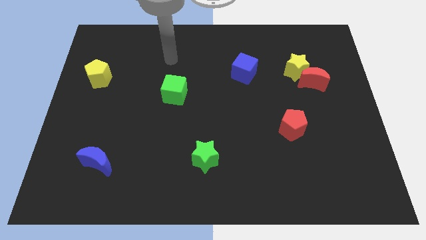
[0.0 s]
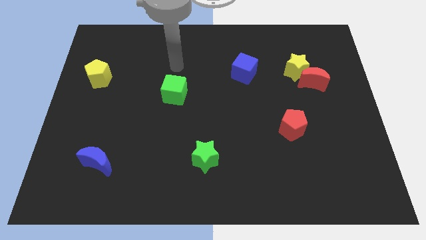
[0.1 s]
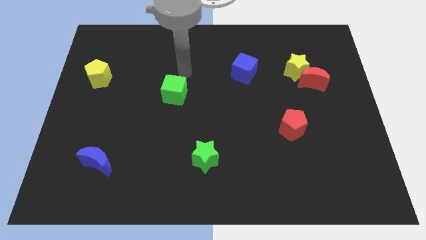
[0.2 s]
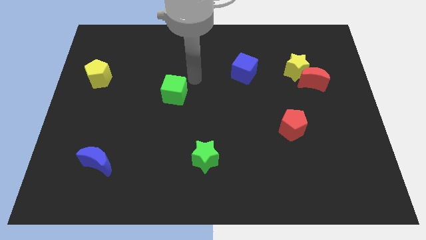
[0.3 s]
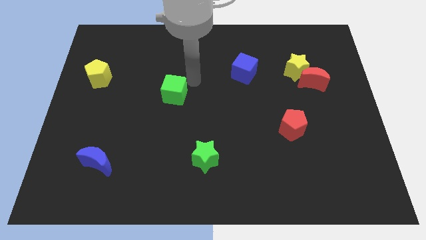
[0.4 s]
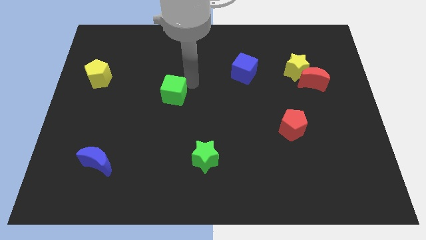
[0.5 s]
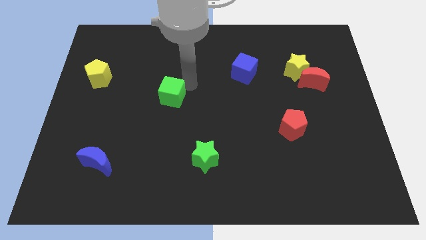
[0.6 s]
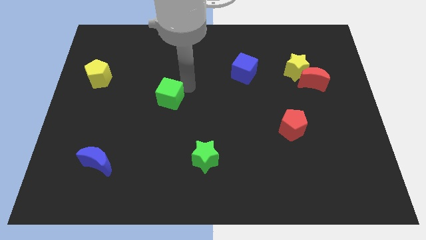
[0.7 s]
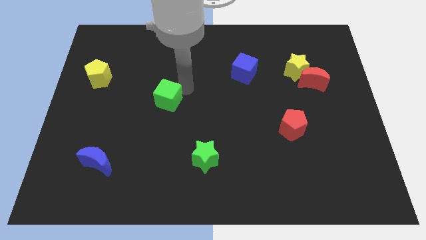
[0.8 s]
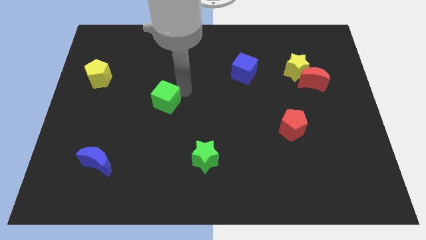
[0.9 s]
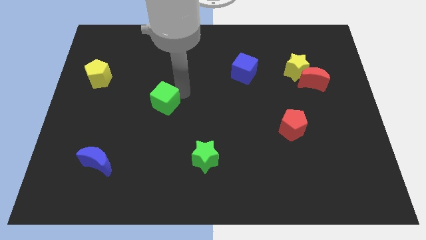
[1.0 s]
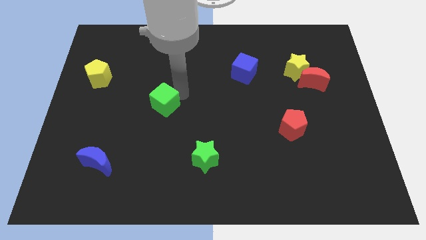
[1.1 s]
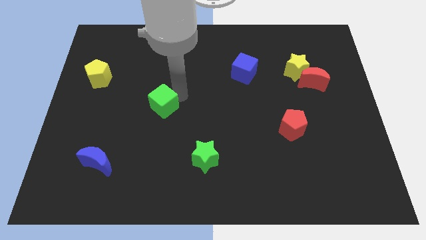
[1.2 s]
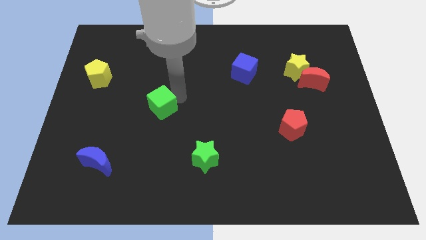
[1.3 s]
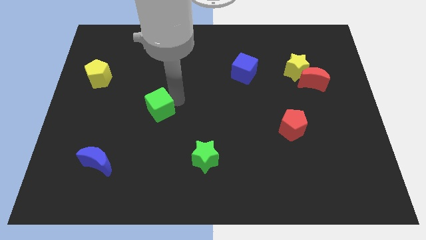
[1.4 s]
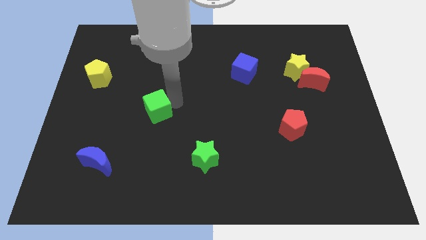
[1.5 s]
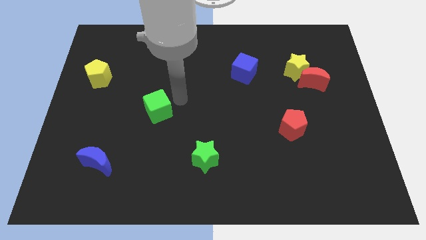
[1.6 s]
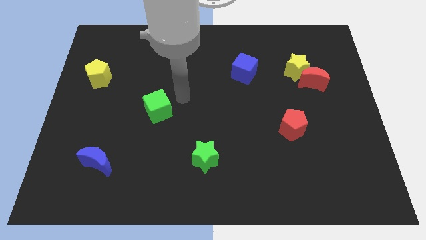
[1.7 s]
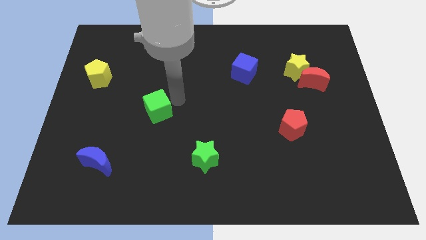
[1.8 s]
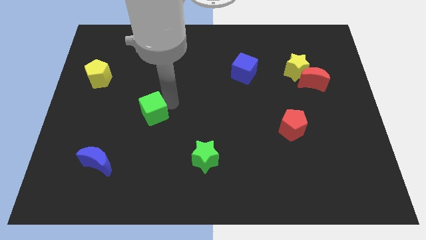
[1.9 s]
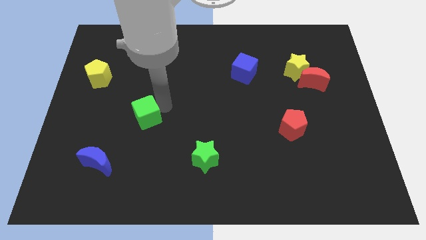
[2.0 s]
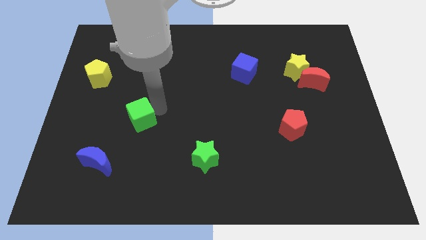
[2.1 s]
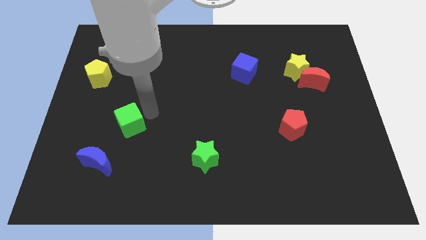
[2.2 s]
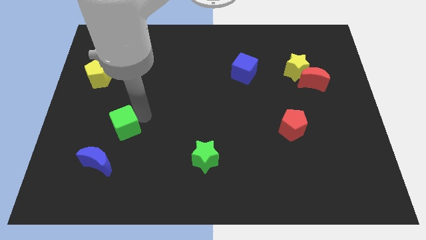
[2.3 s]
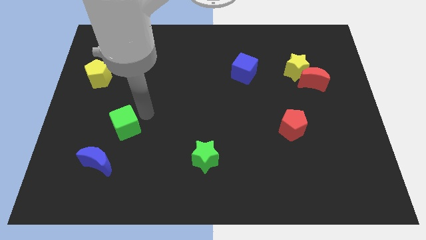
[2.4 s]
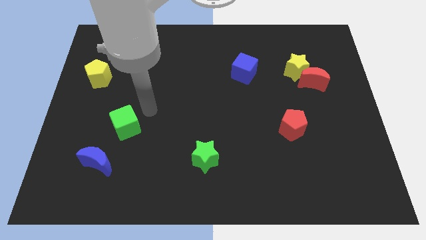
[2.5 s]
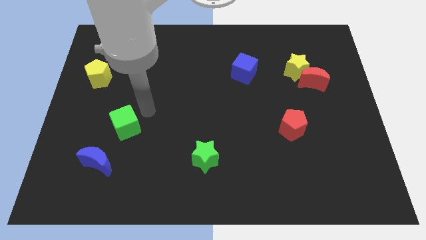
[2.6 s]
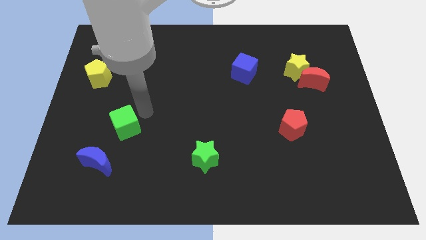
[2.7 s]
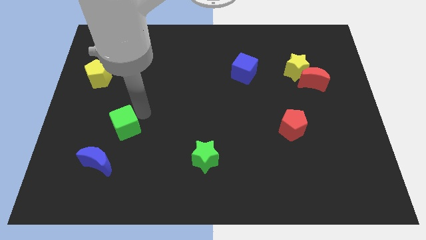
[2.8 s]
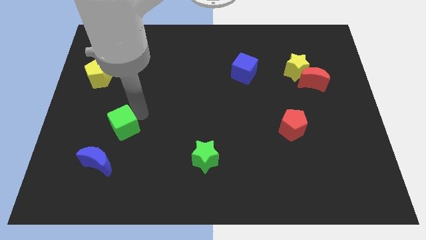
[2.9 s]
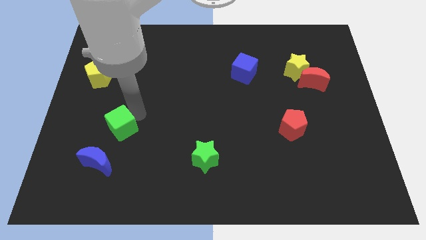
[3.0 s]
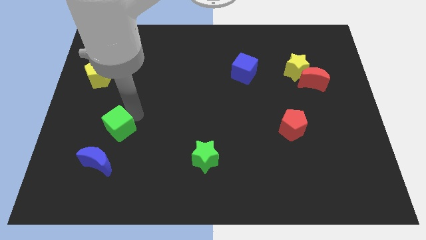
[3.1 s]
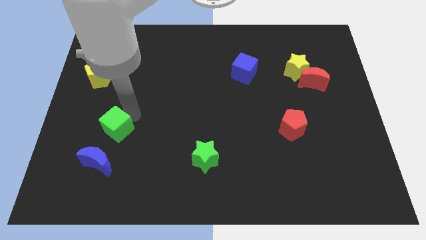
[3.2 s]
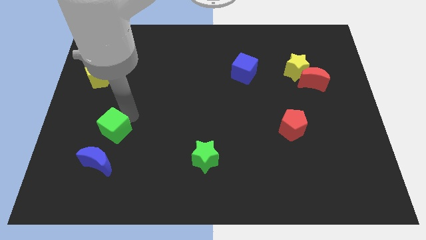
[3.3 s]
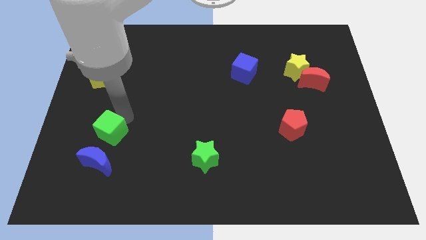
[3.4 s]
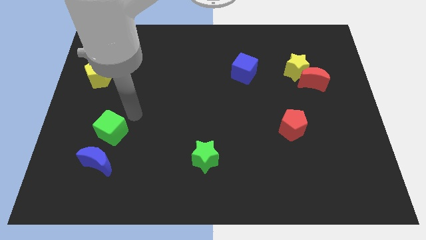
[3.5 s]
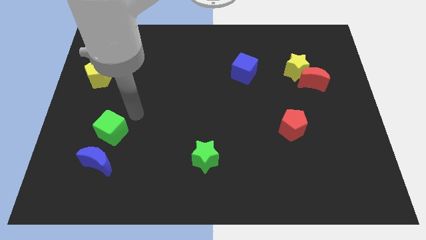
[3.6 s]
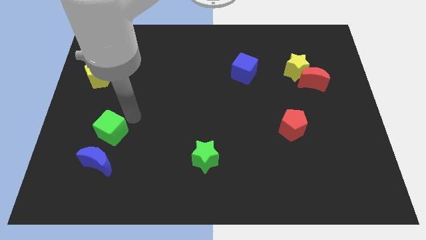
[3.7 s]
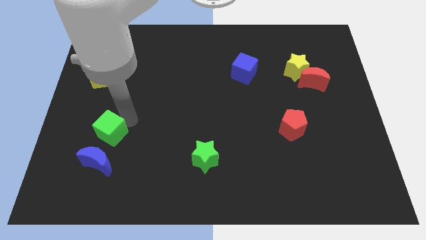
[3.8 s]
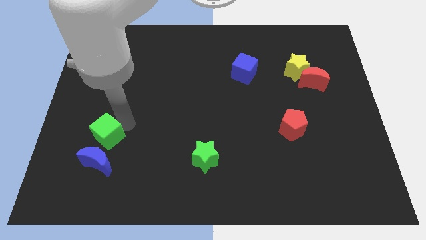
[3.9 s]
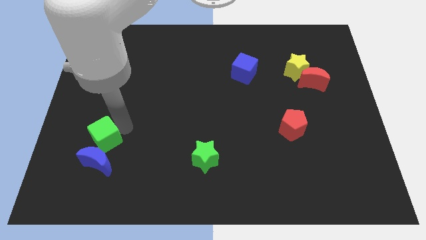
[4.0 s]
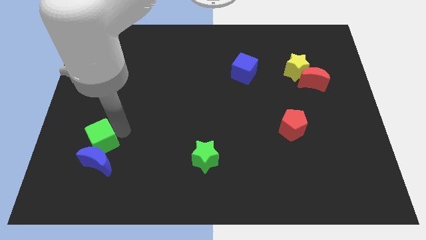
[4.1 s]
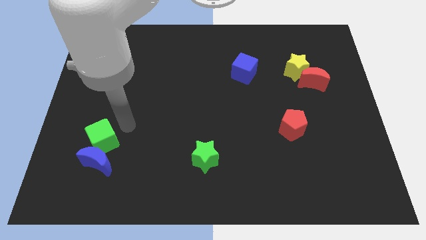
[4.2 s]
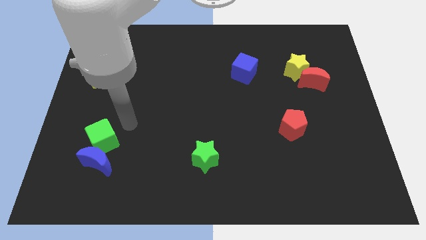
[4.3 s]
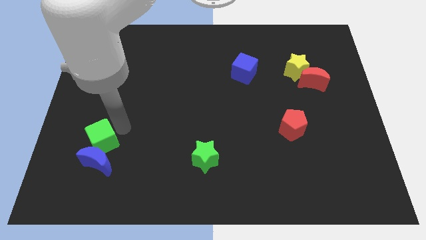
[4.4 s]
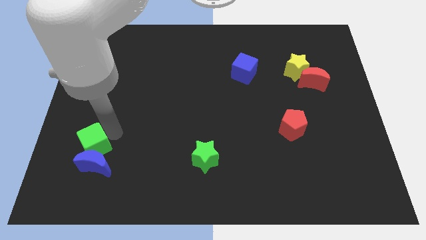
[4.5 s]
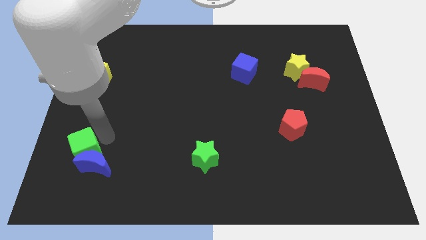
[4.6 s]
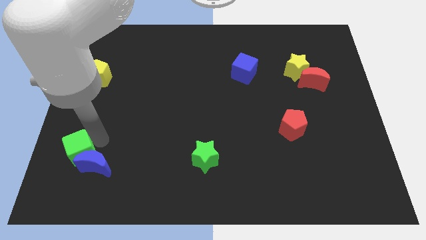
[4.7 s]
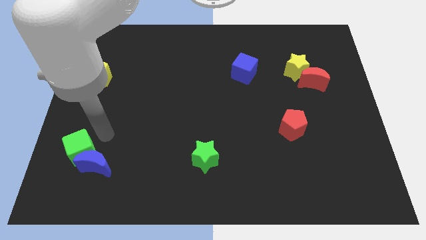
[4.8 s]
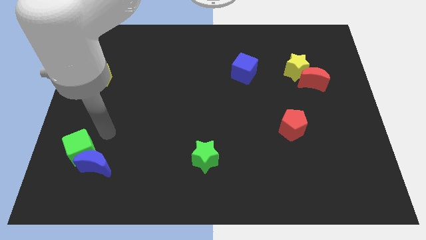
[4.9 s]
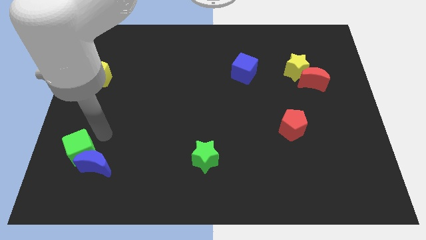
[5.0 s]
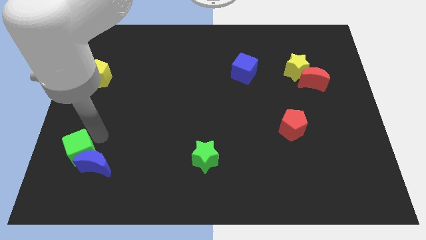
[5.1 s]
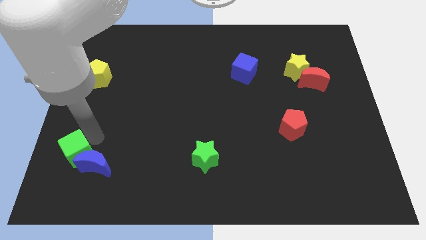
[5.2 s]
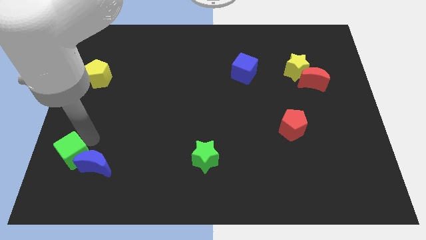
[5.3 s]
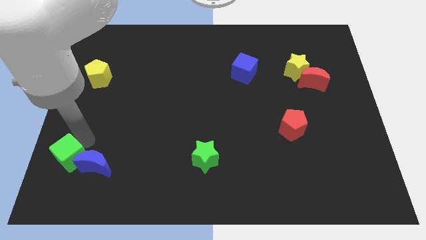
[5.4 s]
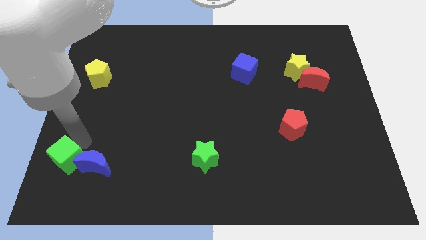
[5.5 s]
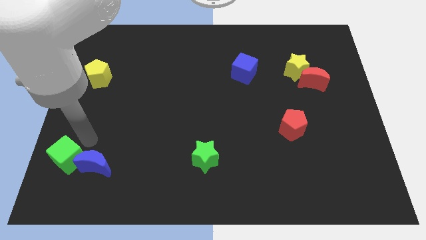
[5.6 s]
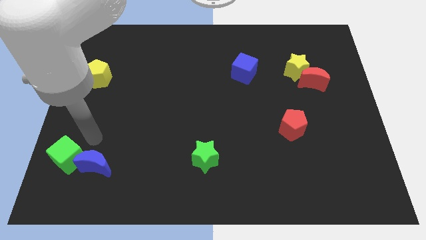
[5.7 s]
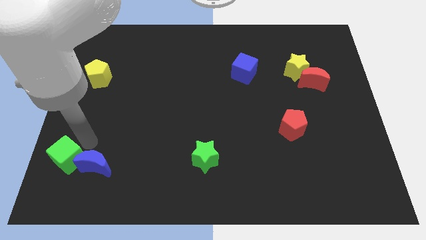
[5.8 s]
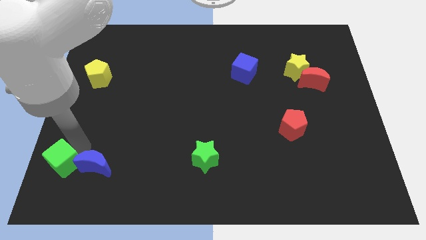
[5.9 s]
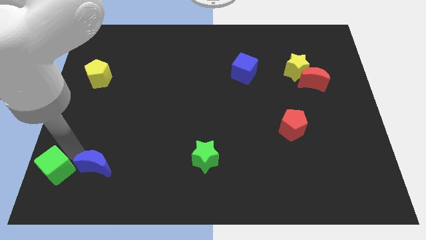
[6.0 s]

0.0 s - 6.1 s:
put the green cube to the bottom left corner

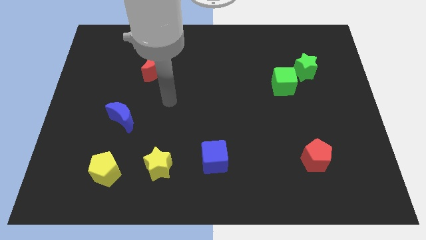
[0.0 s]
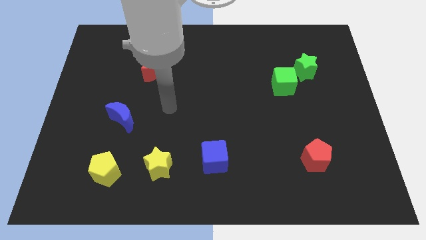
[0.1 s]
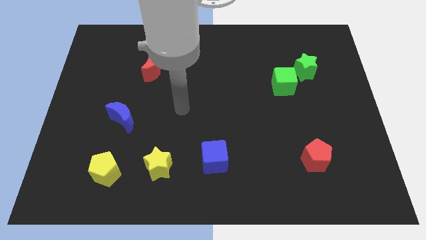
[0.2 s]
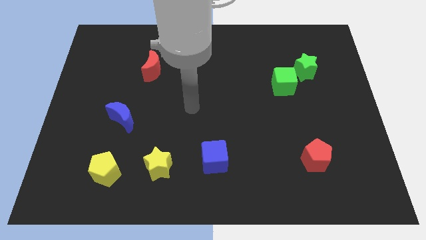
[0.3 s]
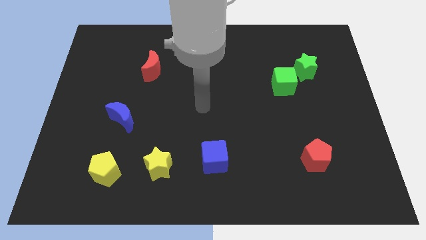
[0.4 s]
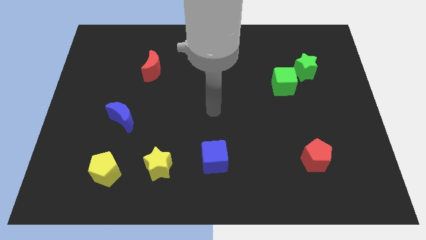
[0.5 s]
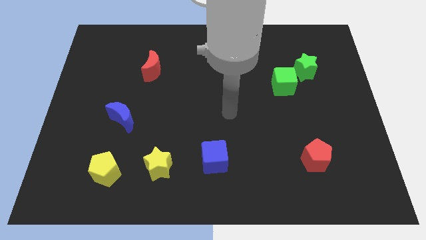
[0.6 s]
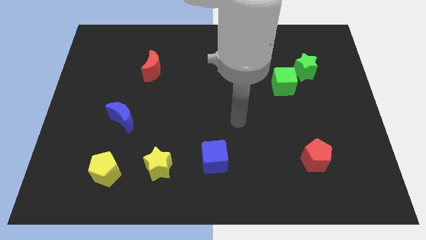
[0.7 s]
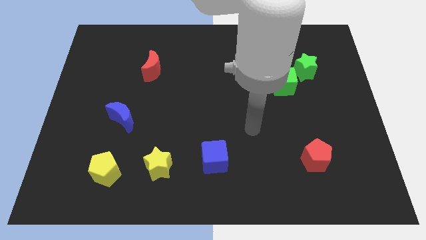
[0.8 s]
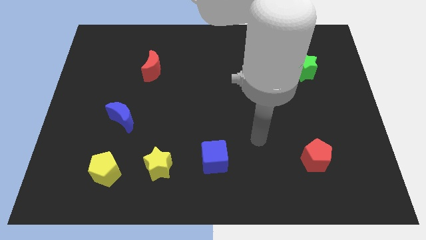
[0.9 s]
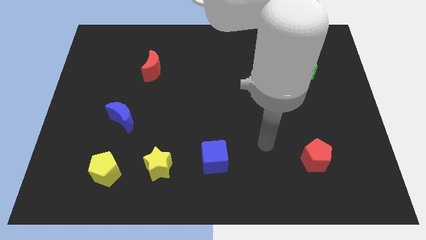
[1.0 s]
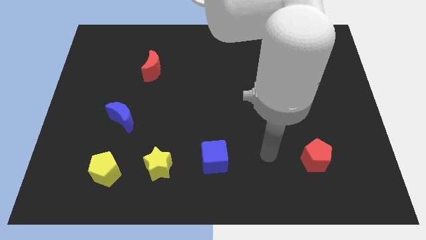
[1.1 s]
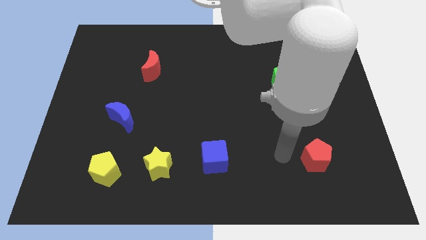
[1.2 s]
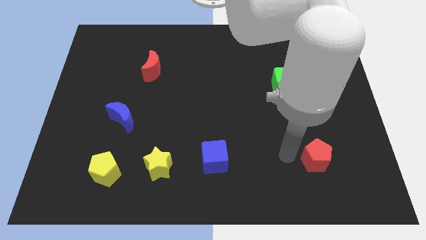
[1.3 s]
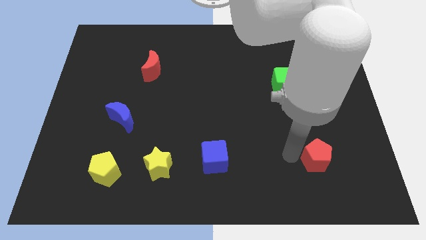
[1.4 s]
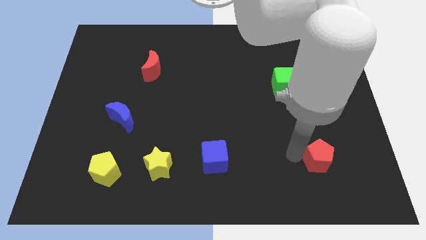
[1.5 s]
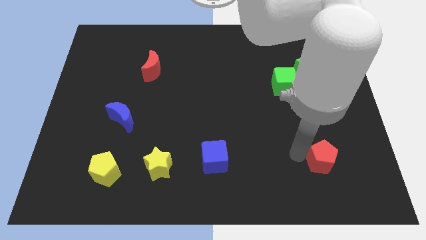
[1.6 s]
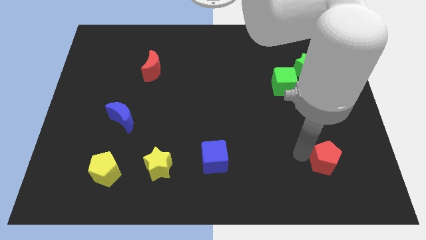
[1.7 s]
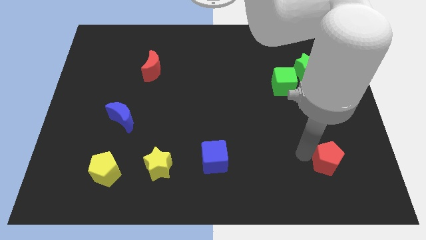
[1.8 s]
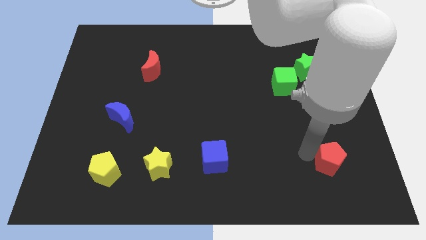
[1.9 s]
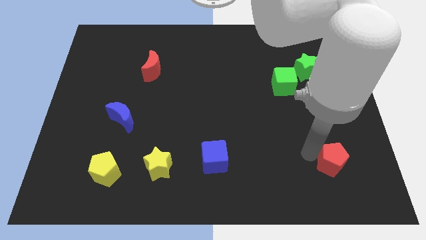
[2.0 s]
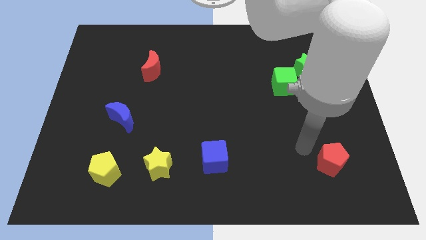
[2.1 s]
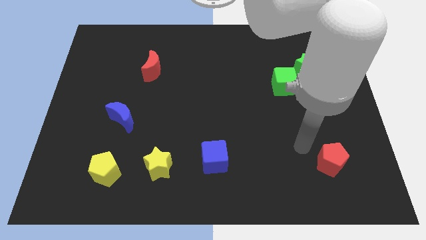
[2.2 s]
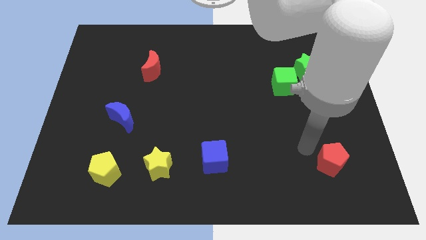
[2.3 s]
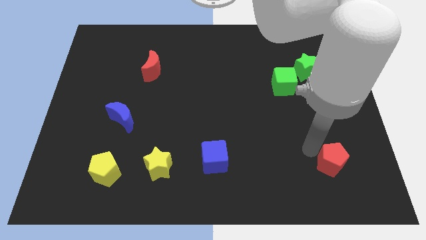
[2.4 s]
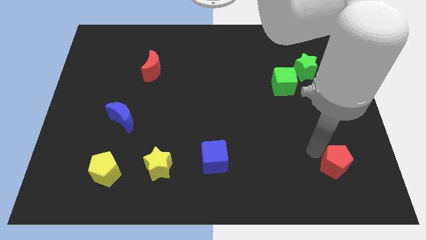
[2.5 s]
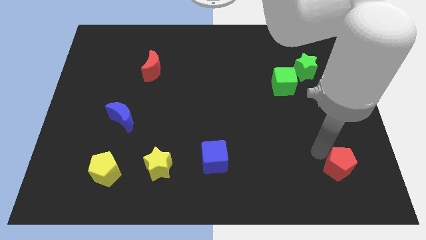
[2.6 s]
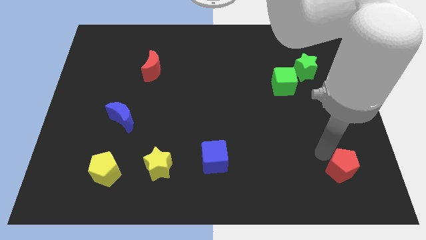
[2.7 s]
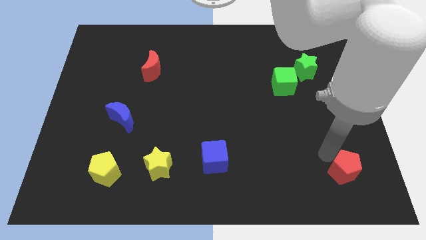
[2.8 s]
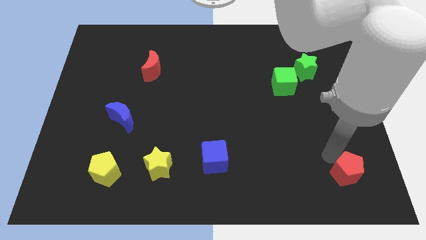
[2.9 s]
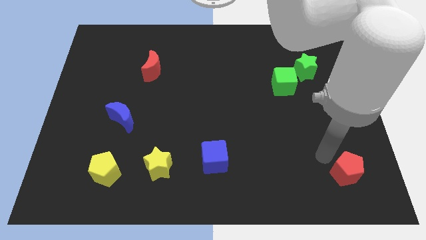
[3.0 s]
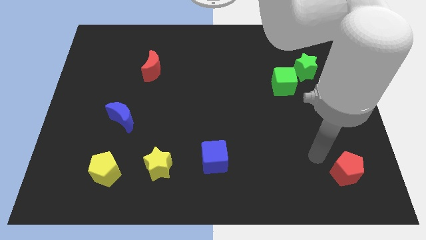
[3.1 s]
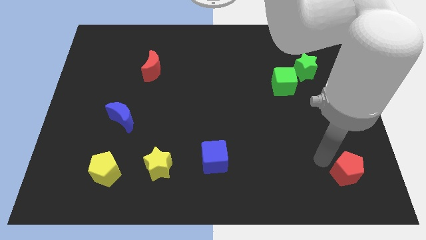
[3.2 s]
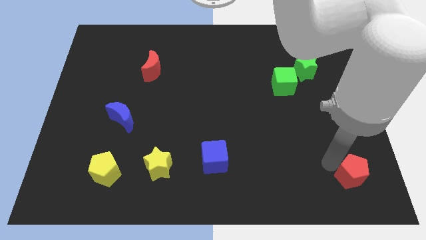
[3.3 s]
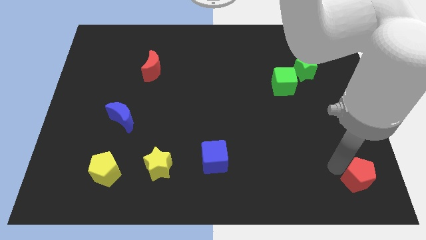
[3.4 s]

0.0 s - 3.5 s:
slide the red pentagon to the lower right corner
